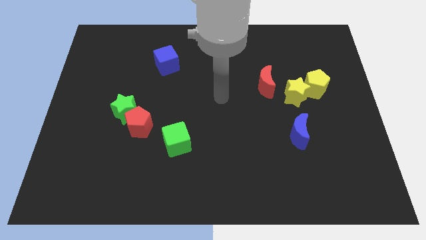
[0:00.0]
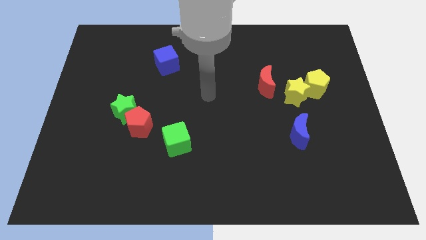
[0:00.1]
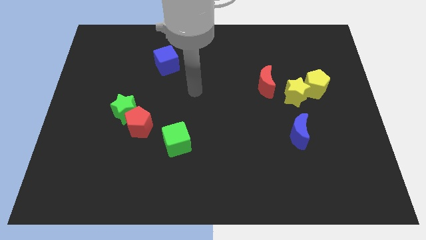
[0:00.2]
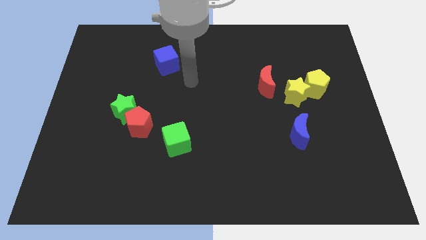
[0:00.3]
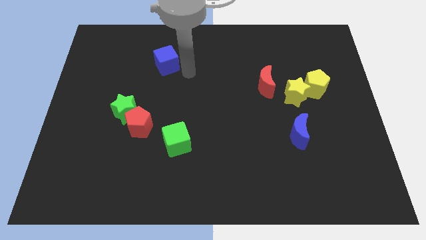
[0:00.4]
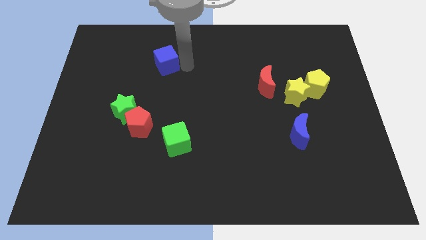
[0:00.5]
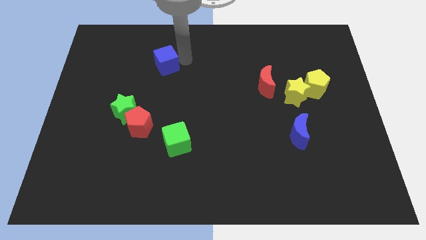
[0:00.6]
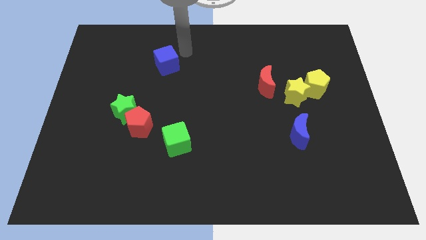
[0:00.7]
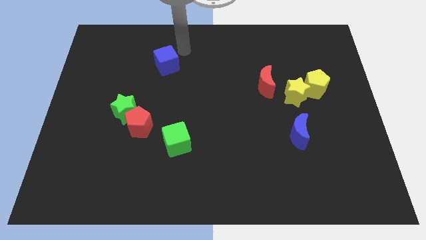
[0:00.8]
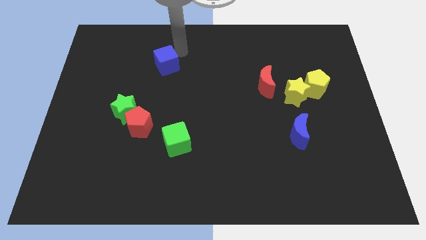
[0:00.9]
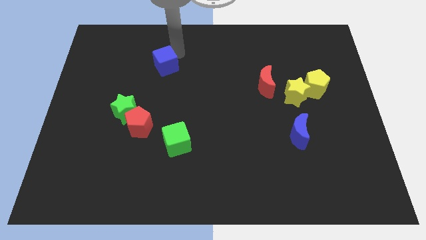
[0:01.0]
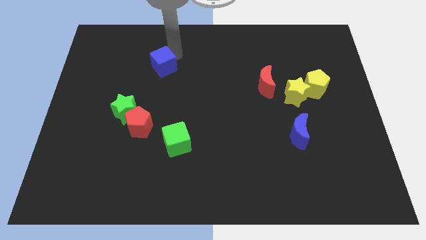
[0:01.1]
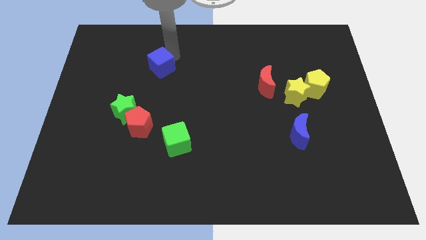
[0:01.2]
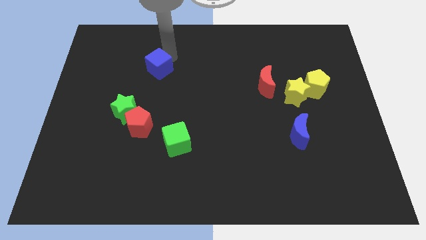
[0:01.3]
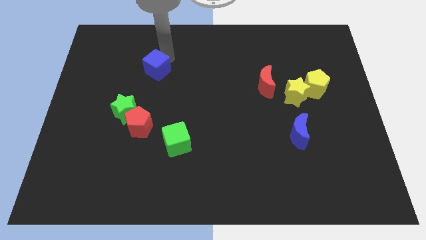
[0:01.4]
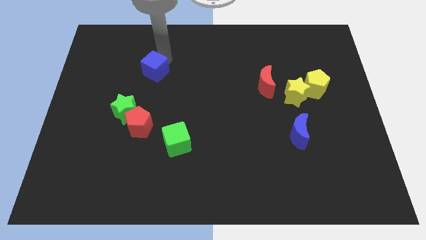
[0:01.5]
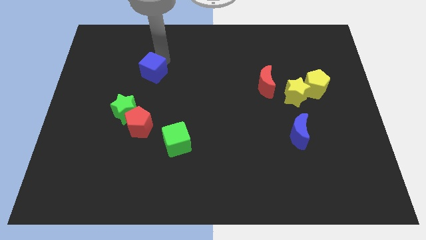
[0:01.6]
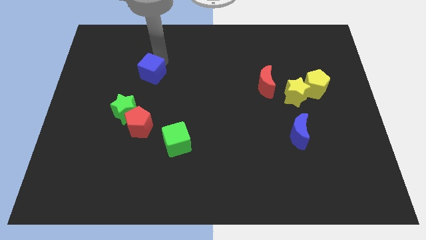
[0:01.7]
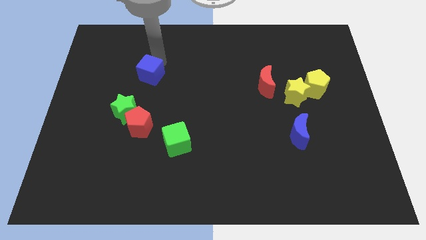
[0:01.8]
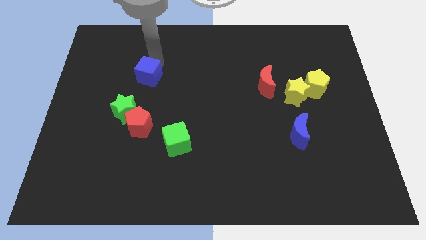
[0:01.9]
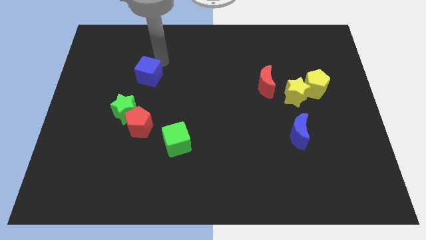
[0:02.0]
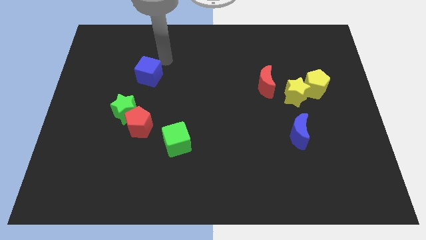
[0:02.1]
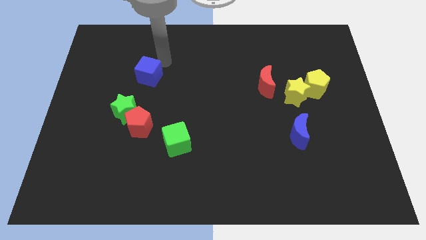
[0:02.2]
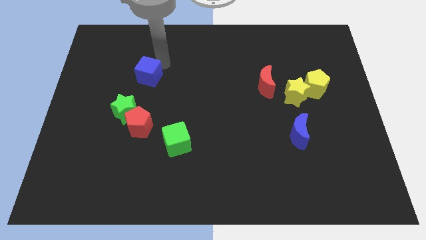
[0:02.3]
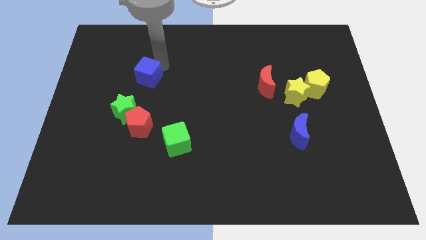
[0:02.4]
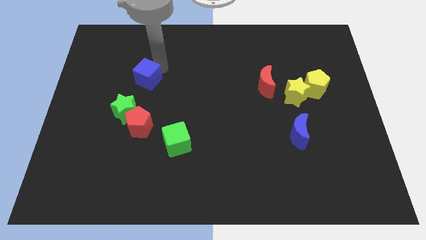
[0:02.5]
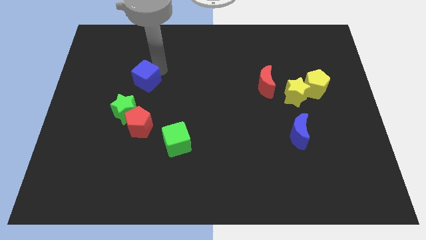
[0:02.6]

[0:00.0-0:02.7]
move the blue cube slightly down and then to the left

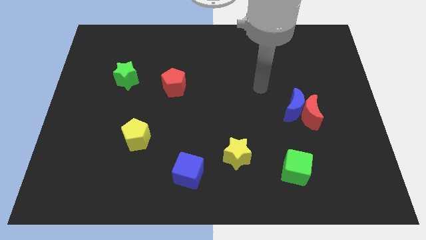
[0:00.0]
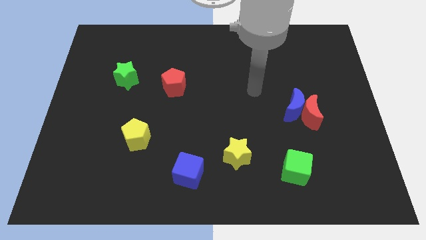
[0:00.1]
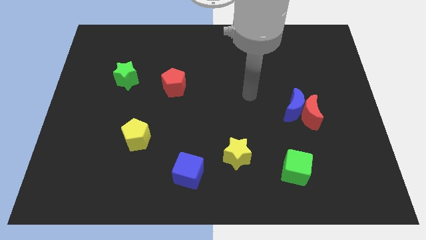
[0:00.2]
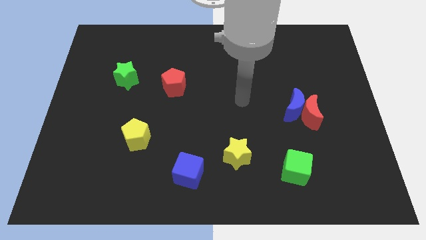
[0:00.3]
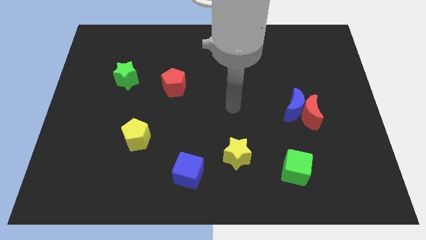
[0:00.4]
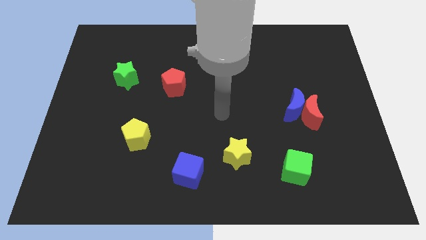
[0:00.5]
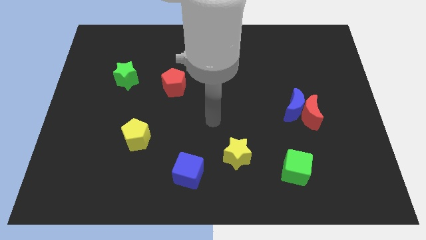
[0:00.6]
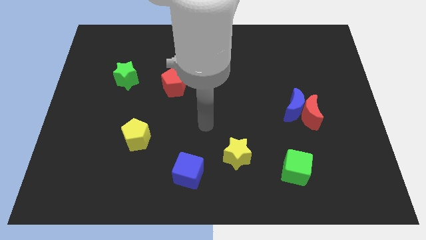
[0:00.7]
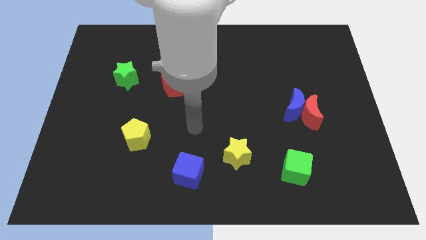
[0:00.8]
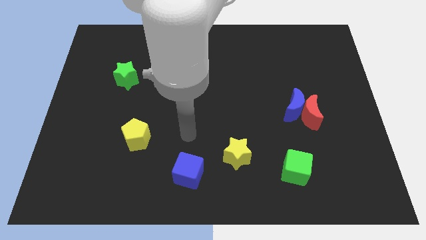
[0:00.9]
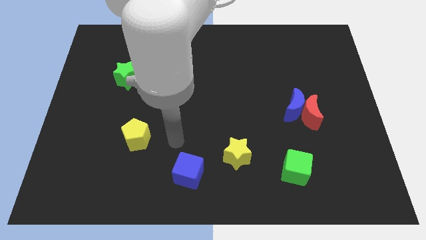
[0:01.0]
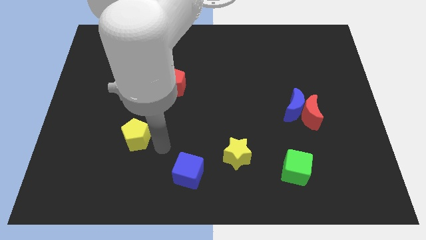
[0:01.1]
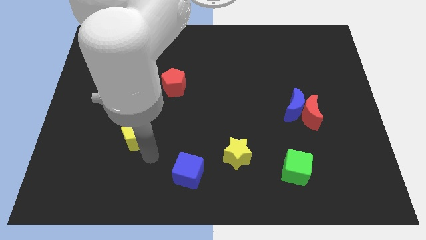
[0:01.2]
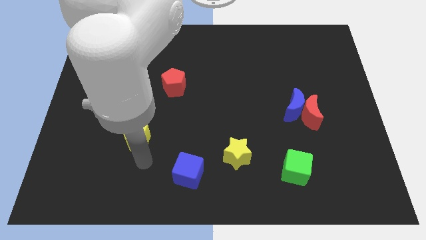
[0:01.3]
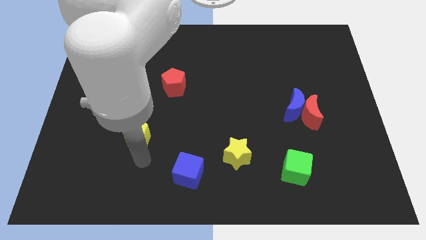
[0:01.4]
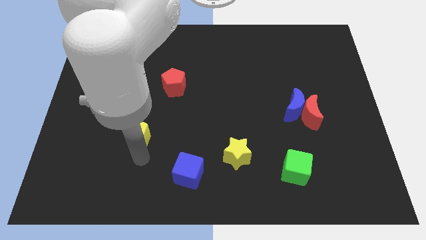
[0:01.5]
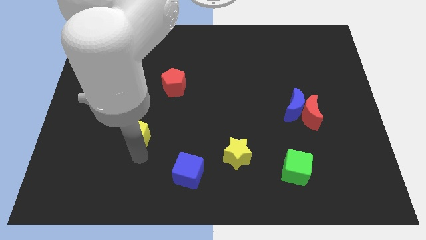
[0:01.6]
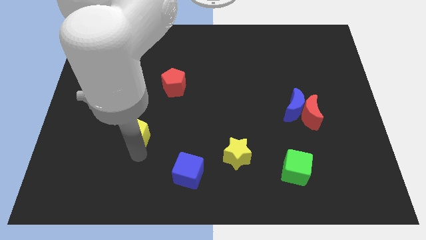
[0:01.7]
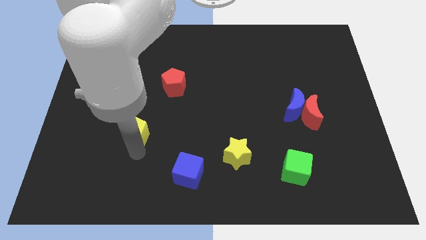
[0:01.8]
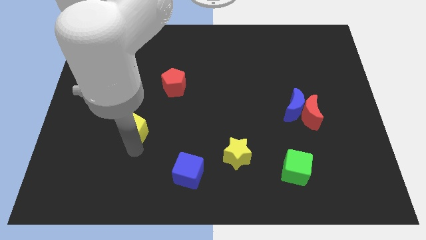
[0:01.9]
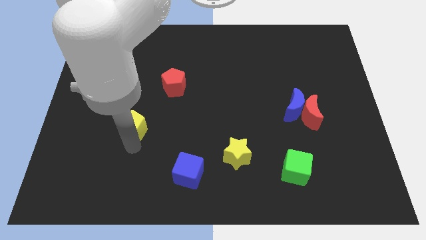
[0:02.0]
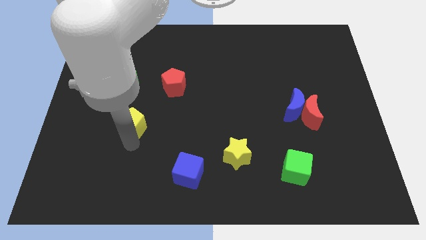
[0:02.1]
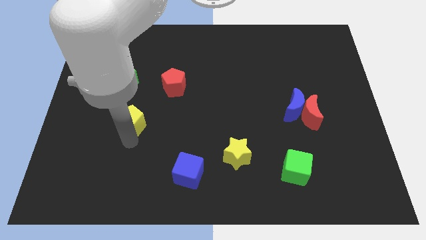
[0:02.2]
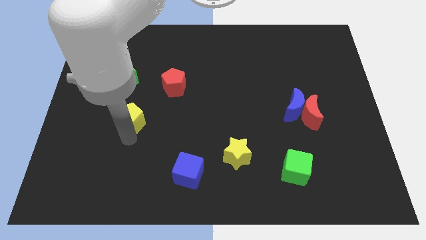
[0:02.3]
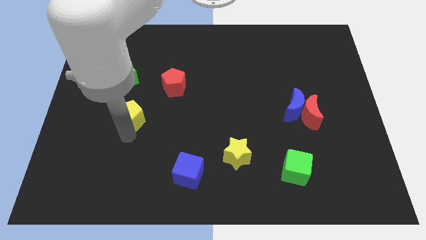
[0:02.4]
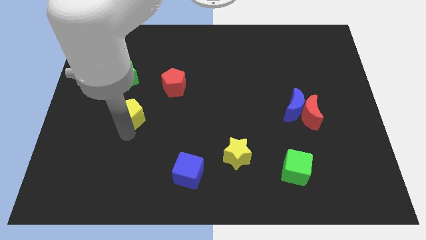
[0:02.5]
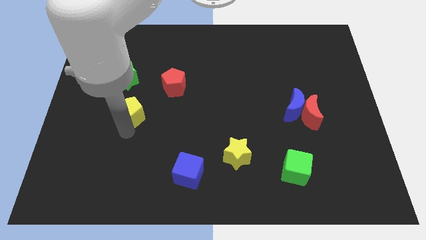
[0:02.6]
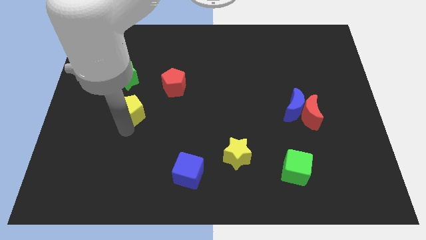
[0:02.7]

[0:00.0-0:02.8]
push the yellow pentagon up a little

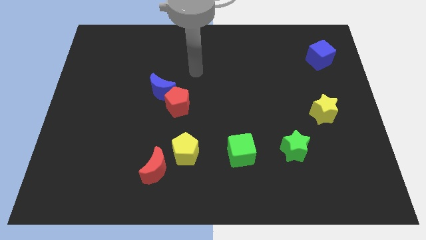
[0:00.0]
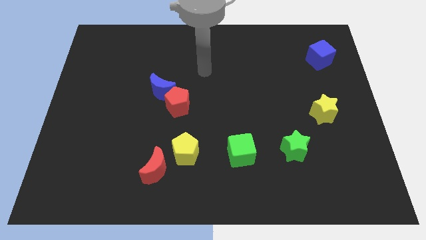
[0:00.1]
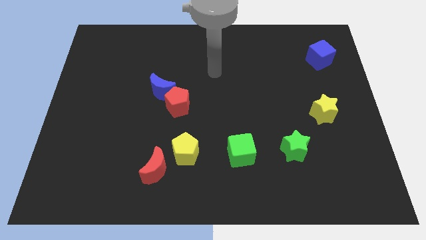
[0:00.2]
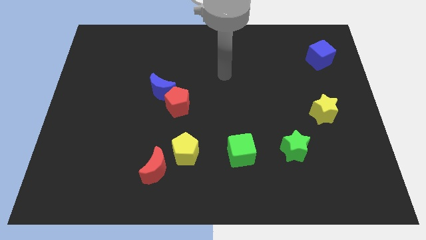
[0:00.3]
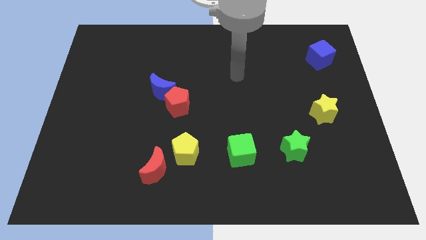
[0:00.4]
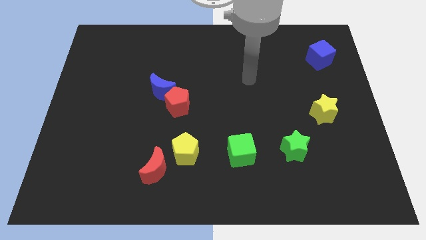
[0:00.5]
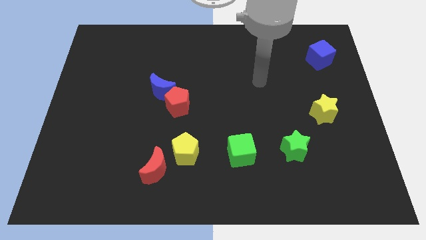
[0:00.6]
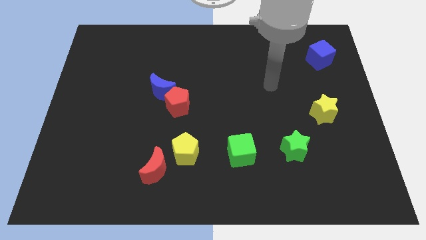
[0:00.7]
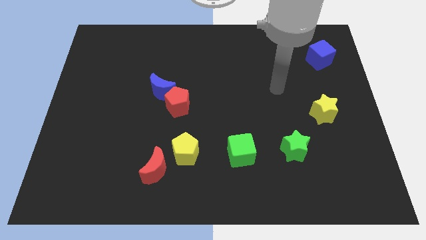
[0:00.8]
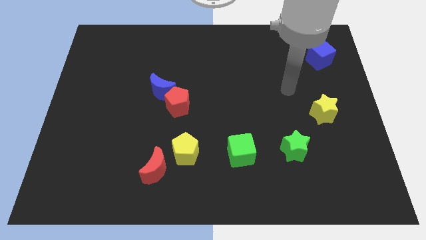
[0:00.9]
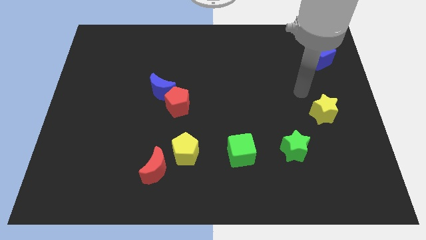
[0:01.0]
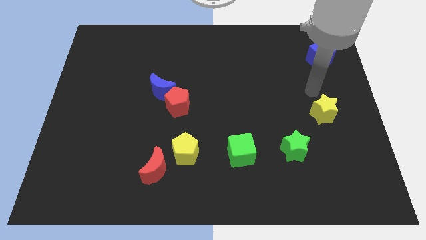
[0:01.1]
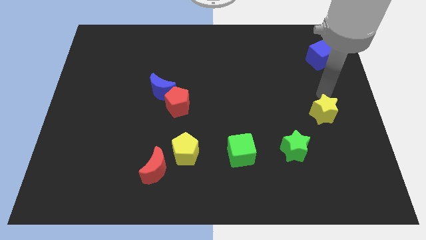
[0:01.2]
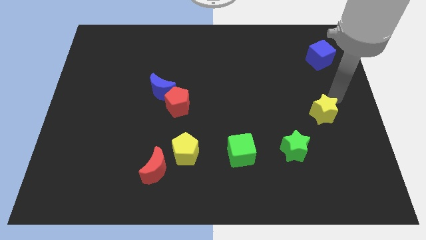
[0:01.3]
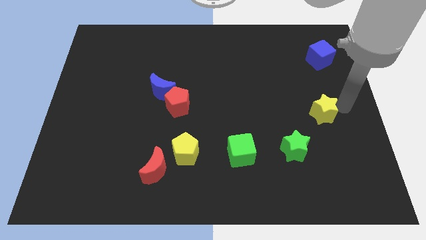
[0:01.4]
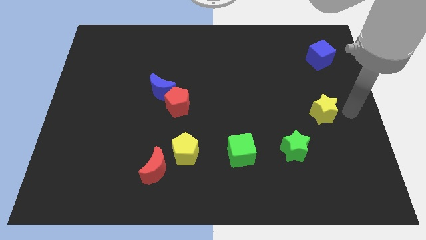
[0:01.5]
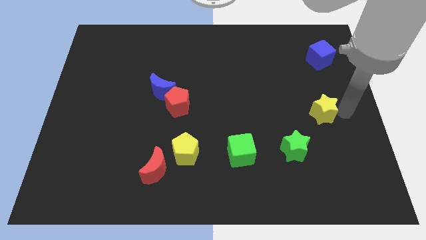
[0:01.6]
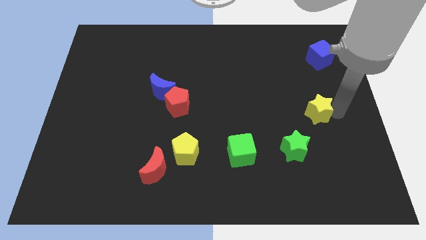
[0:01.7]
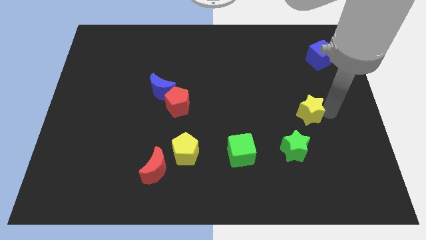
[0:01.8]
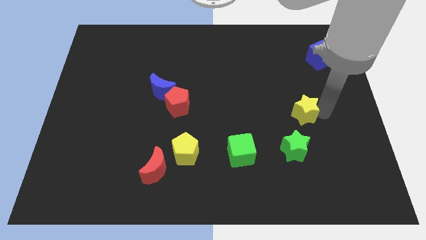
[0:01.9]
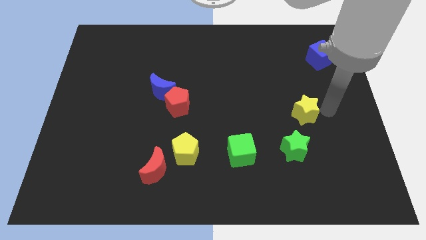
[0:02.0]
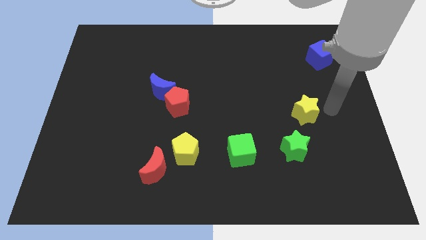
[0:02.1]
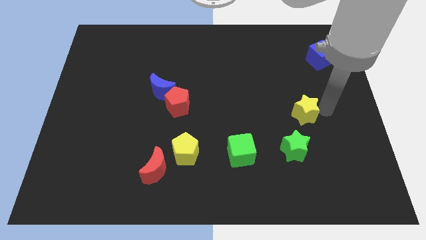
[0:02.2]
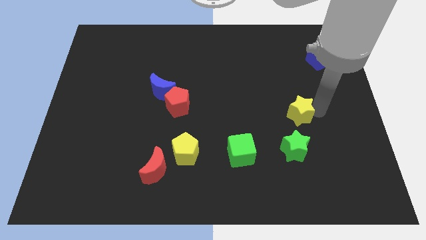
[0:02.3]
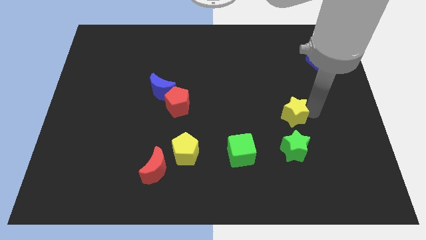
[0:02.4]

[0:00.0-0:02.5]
move the yellow star slightly to the left
